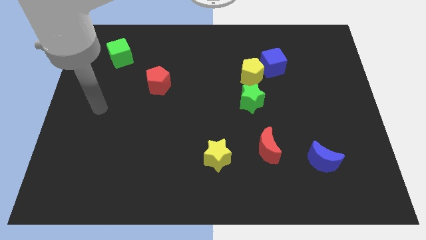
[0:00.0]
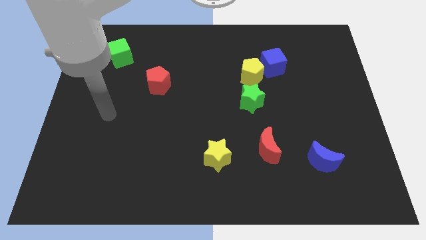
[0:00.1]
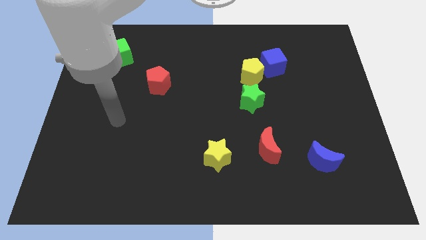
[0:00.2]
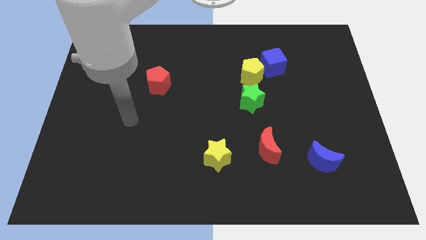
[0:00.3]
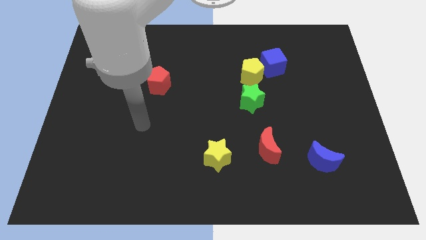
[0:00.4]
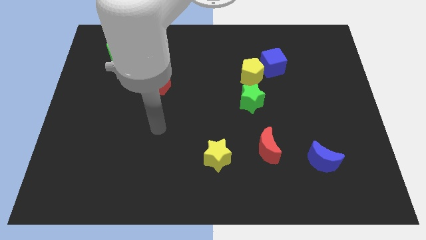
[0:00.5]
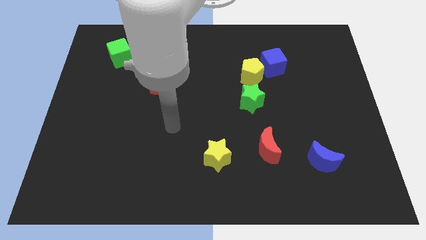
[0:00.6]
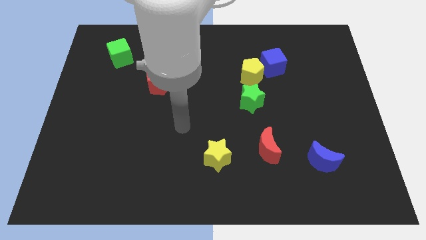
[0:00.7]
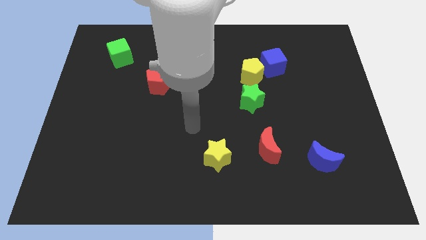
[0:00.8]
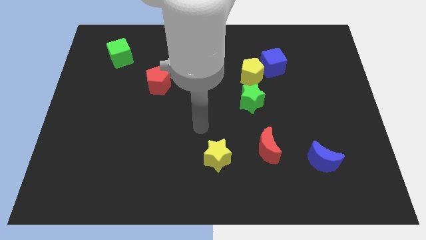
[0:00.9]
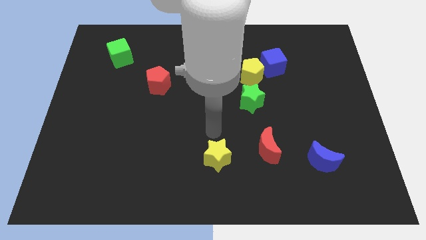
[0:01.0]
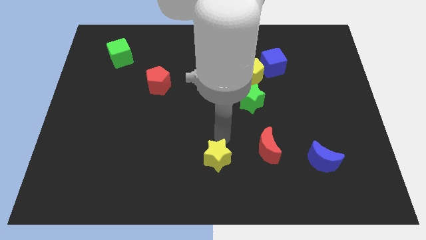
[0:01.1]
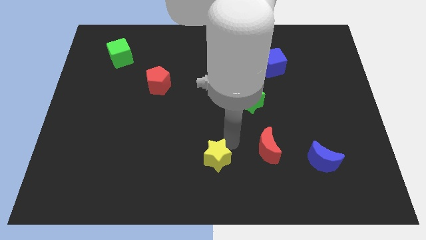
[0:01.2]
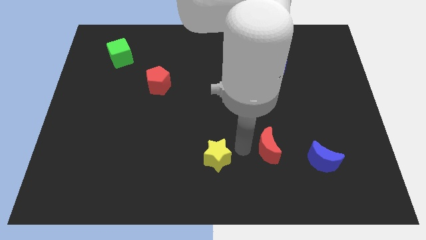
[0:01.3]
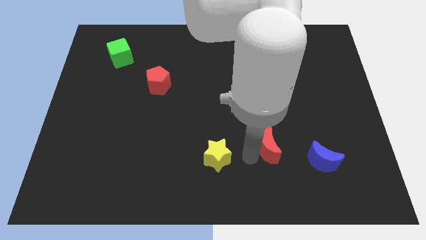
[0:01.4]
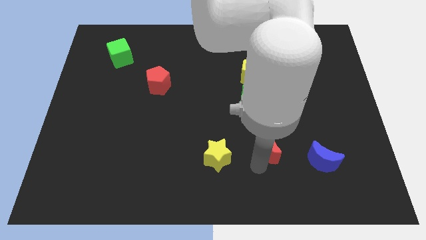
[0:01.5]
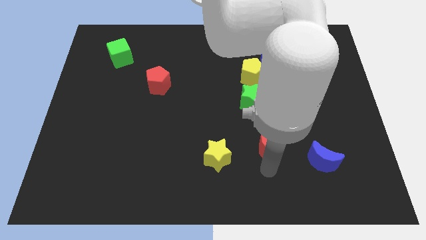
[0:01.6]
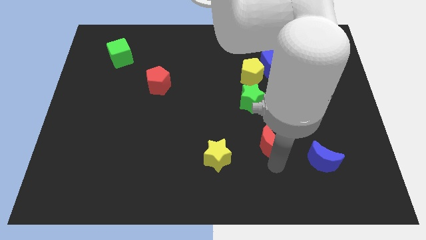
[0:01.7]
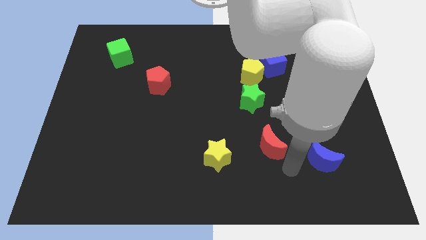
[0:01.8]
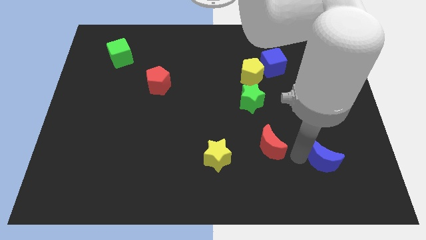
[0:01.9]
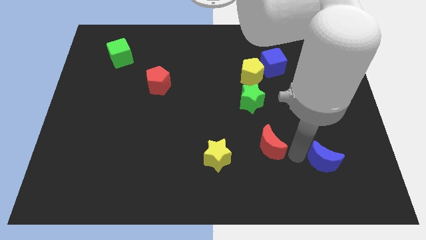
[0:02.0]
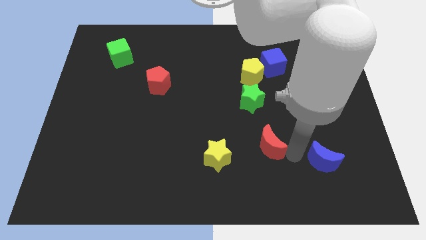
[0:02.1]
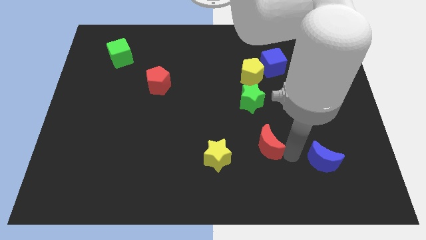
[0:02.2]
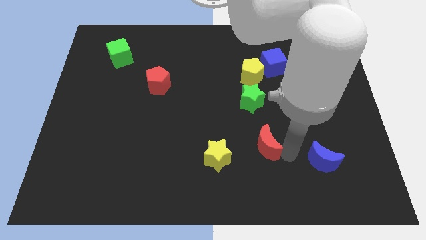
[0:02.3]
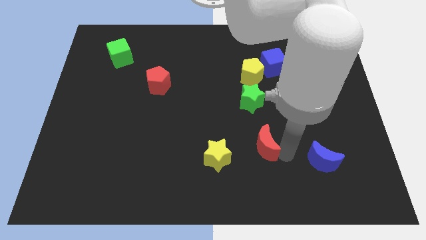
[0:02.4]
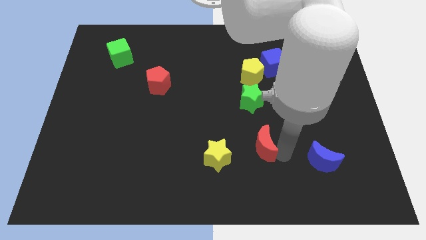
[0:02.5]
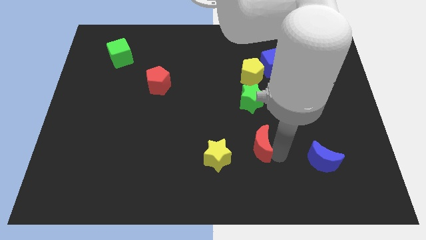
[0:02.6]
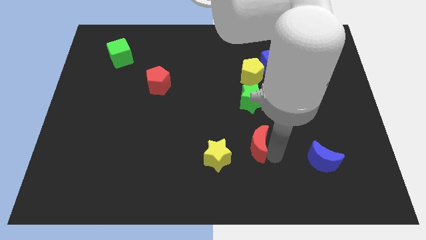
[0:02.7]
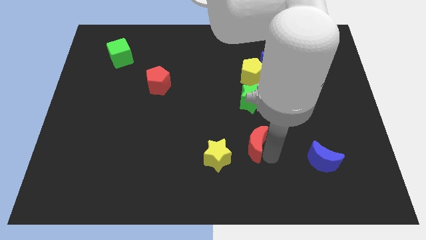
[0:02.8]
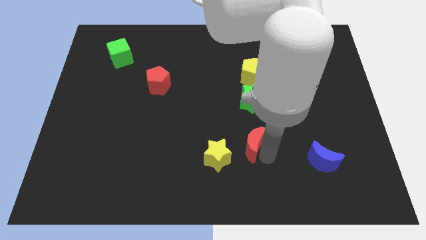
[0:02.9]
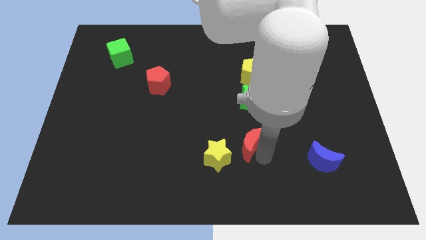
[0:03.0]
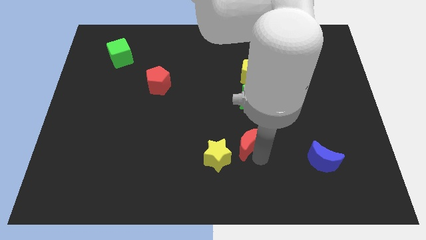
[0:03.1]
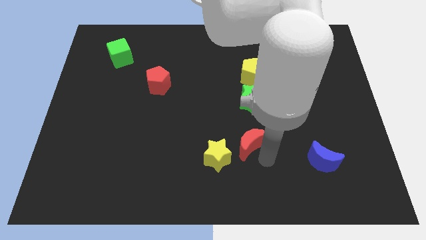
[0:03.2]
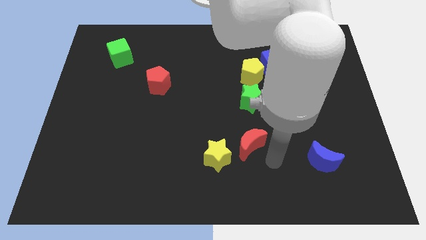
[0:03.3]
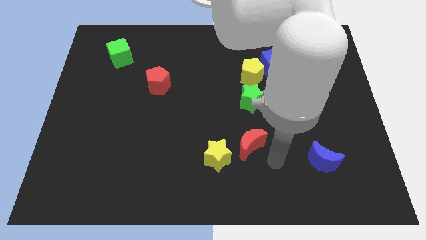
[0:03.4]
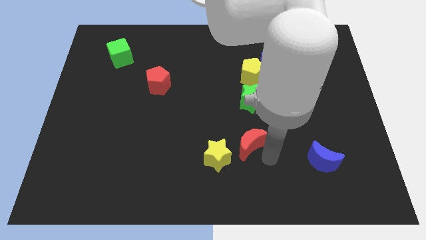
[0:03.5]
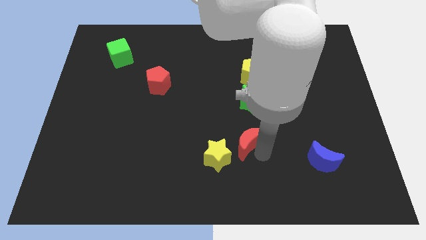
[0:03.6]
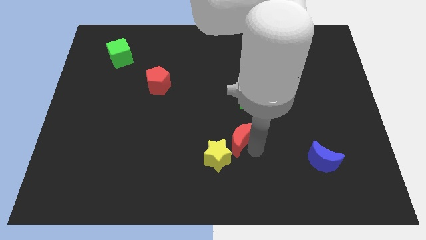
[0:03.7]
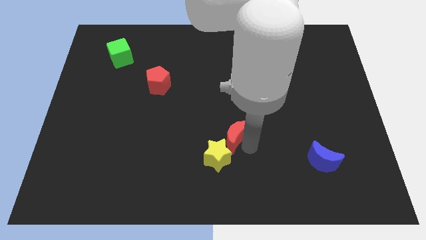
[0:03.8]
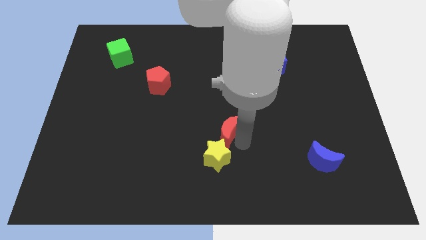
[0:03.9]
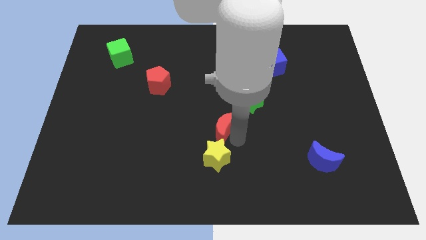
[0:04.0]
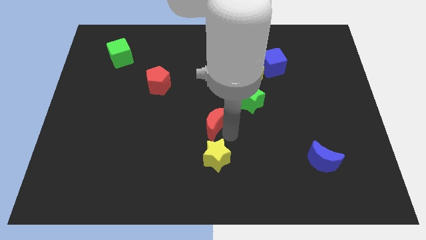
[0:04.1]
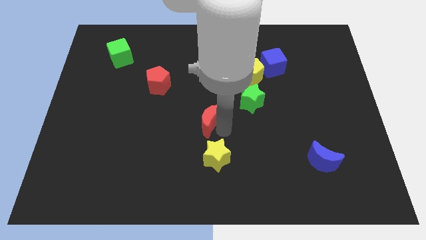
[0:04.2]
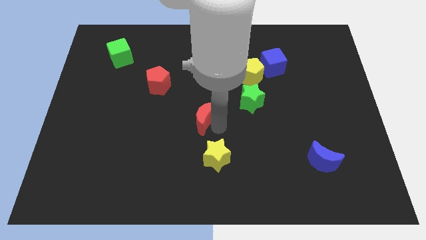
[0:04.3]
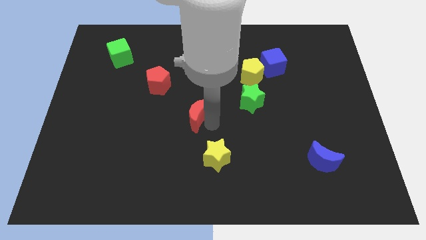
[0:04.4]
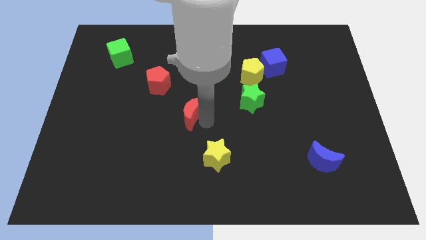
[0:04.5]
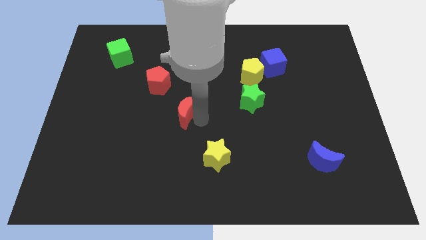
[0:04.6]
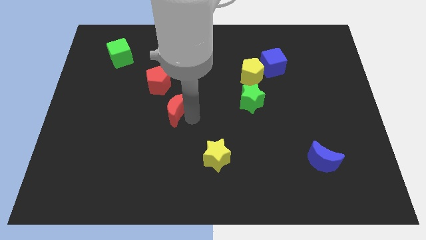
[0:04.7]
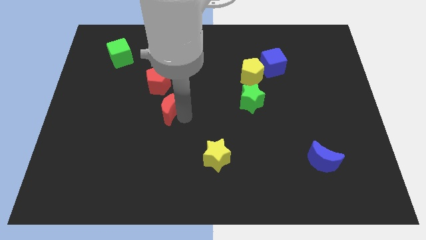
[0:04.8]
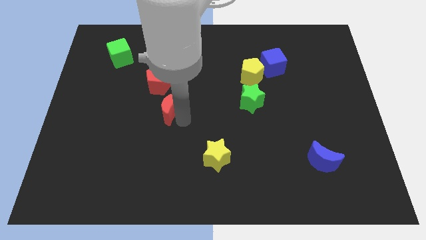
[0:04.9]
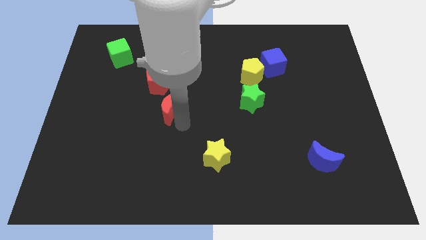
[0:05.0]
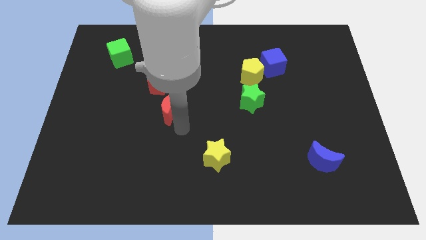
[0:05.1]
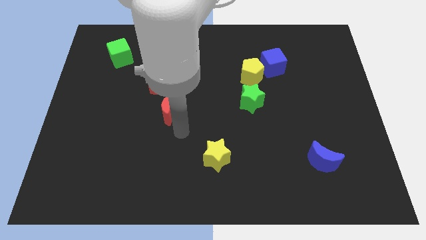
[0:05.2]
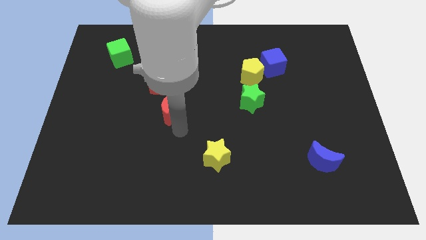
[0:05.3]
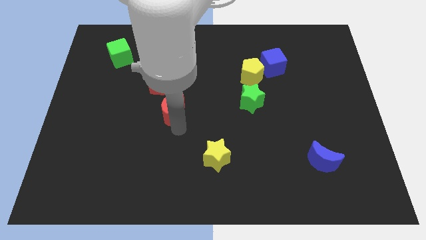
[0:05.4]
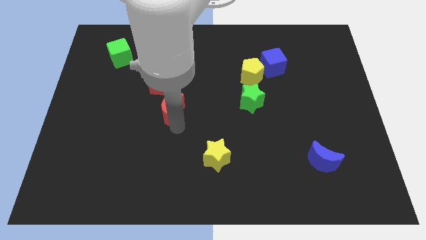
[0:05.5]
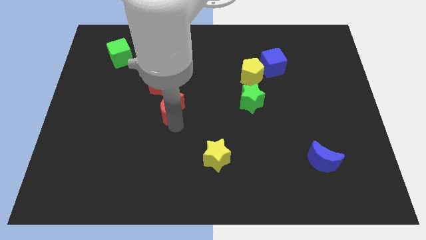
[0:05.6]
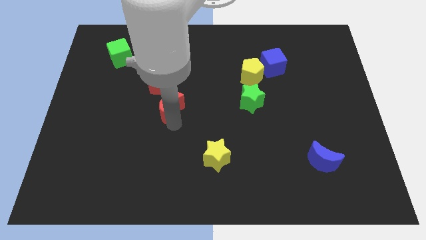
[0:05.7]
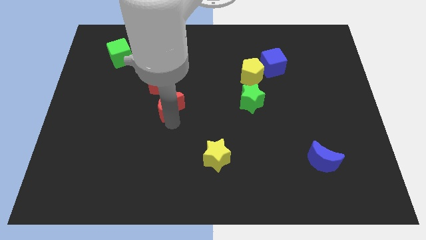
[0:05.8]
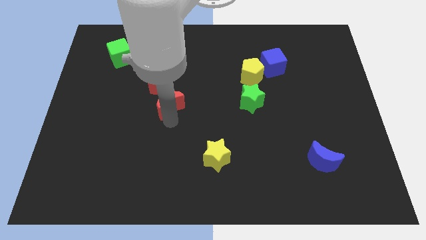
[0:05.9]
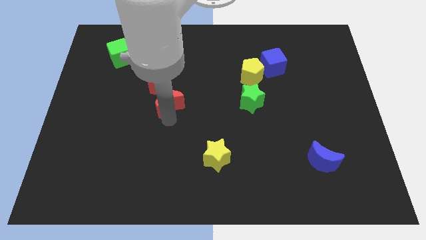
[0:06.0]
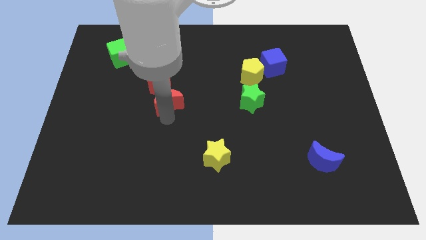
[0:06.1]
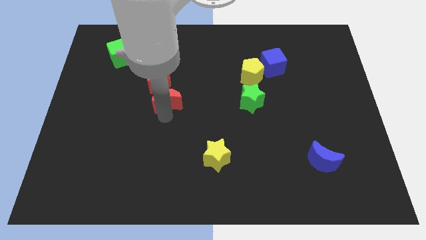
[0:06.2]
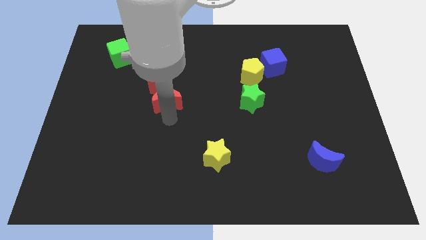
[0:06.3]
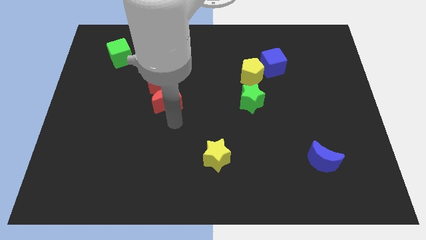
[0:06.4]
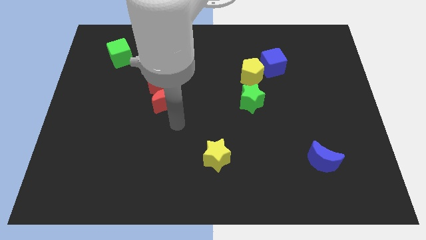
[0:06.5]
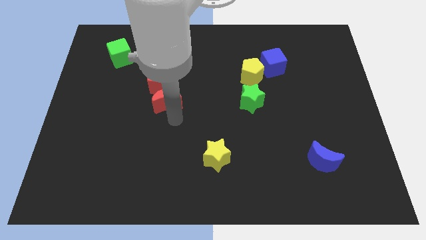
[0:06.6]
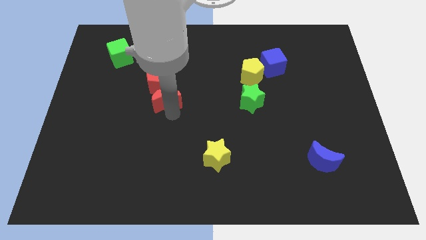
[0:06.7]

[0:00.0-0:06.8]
put the red moon towards the red pentagon

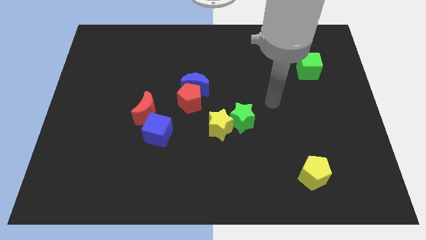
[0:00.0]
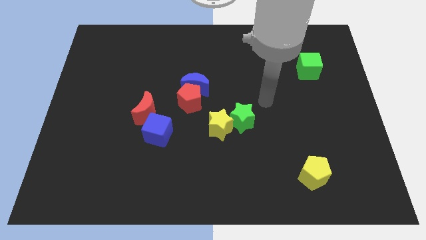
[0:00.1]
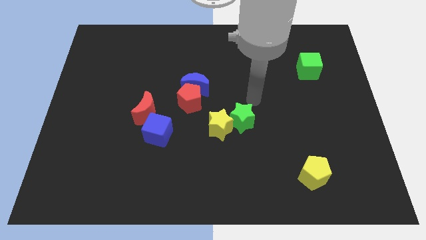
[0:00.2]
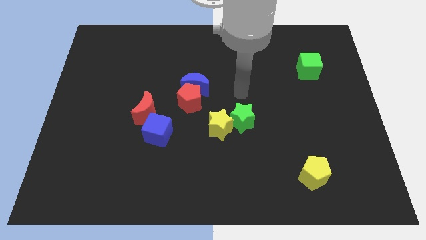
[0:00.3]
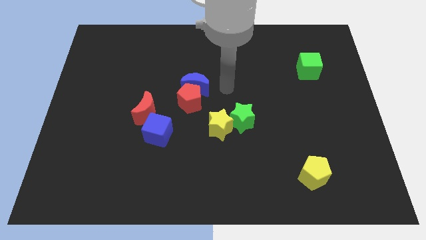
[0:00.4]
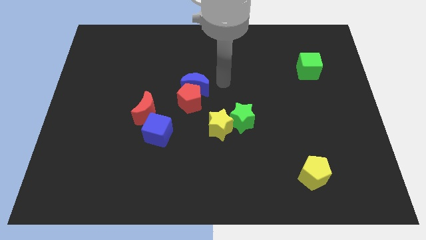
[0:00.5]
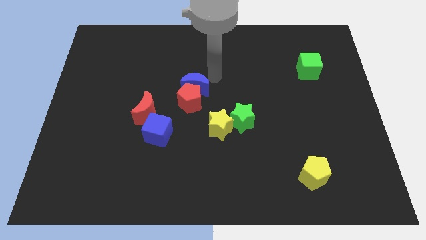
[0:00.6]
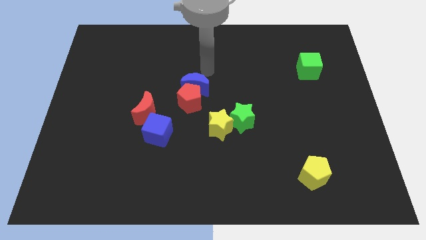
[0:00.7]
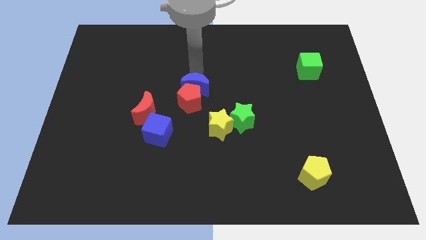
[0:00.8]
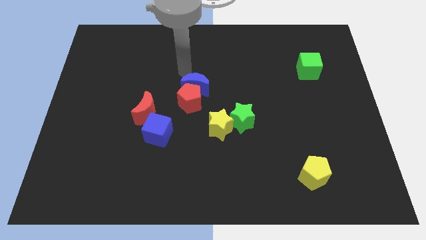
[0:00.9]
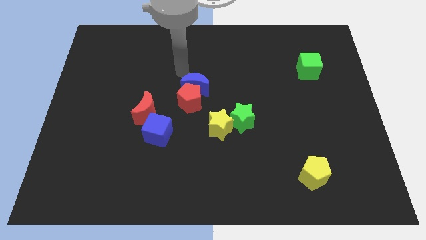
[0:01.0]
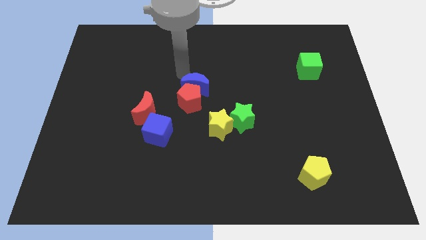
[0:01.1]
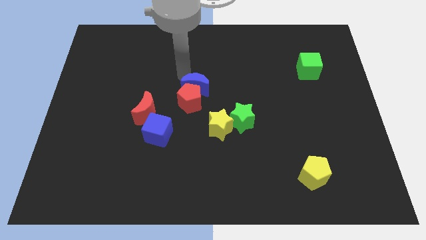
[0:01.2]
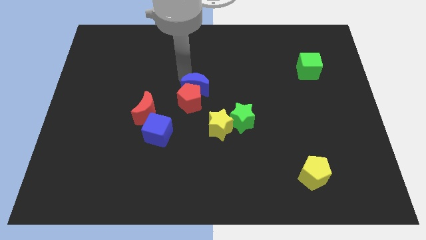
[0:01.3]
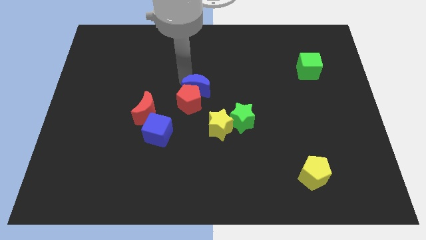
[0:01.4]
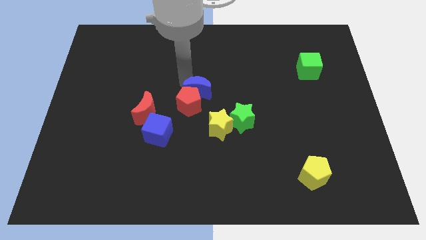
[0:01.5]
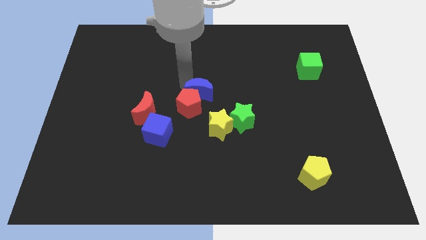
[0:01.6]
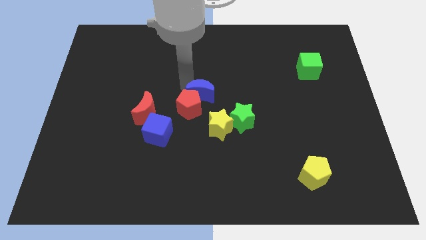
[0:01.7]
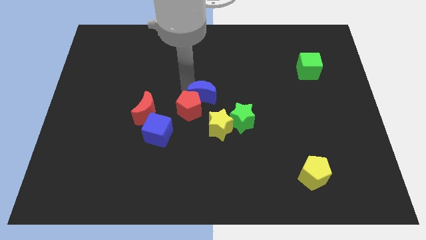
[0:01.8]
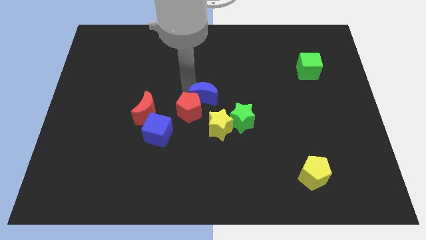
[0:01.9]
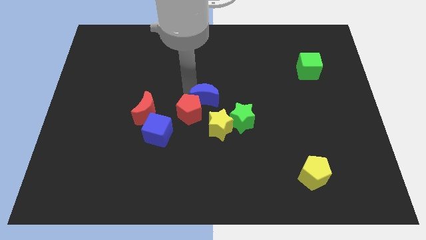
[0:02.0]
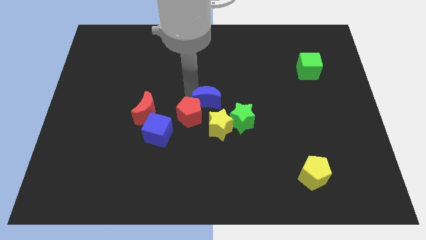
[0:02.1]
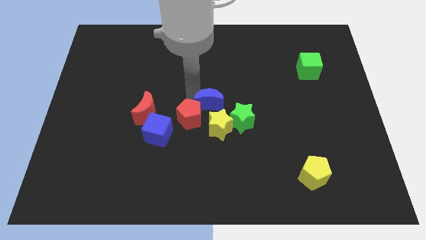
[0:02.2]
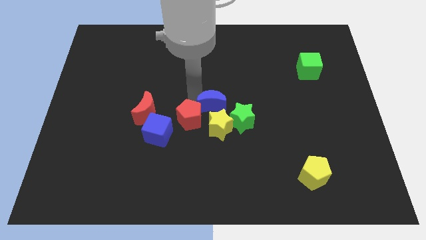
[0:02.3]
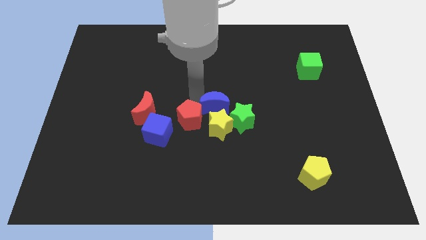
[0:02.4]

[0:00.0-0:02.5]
push the blue moon close to the yellow star
